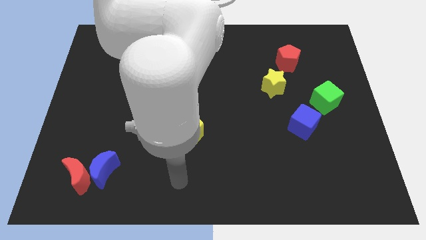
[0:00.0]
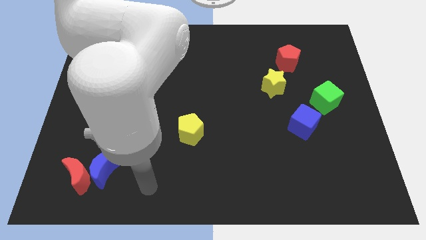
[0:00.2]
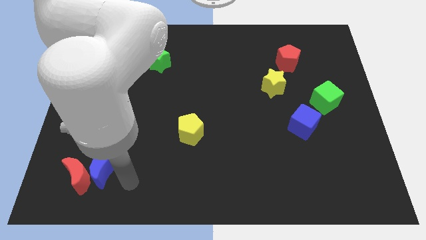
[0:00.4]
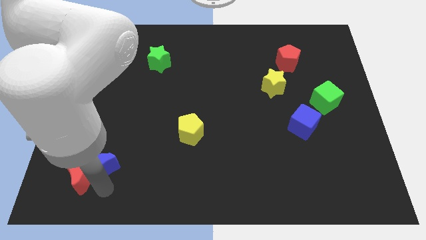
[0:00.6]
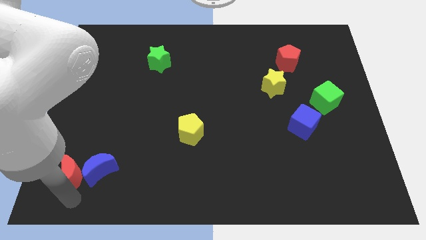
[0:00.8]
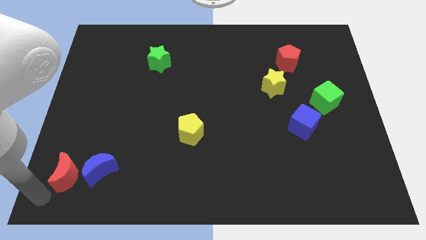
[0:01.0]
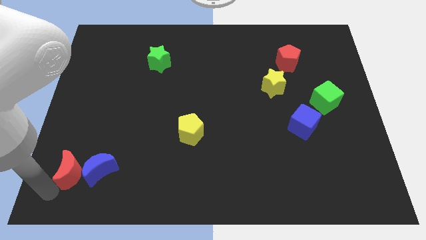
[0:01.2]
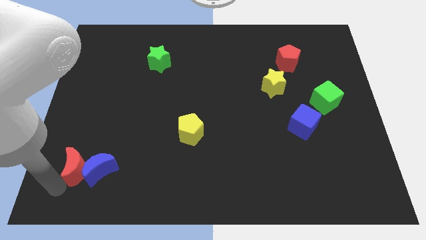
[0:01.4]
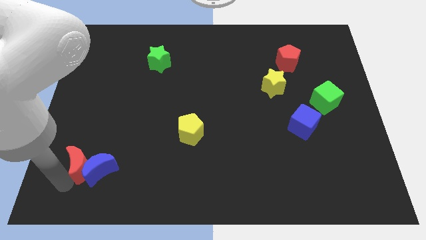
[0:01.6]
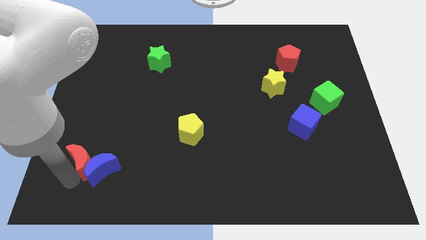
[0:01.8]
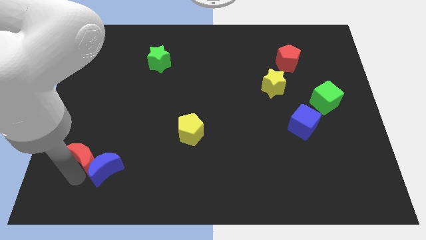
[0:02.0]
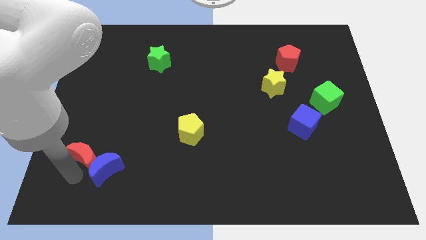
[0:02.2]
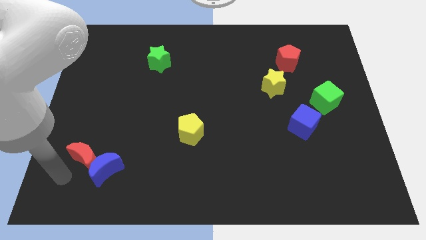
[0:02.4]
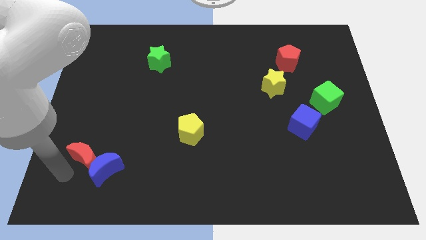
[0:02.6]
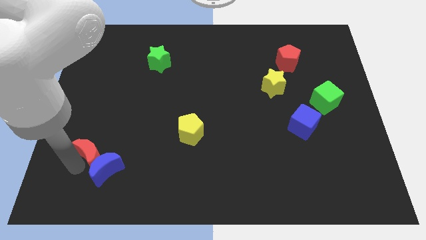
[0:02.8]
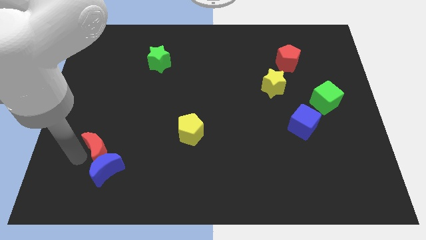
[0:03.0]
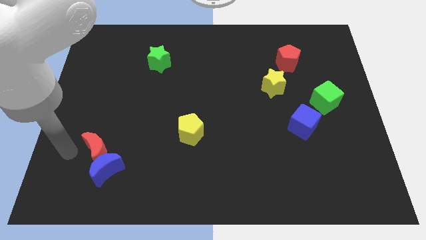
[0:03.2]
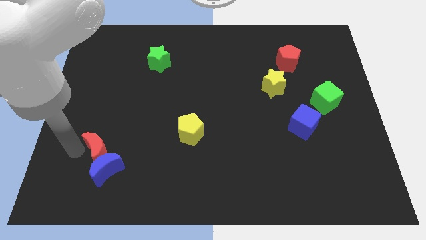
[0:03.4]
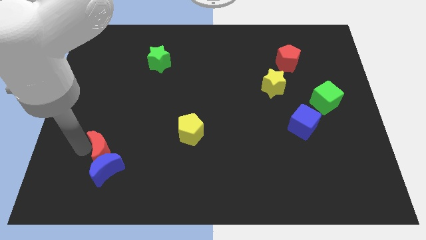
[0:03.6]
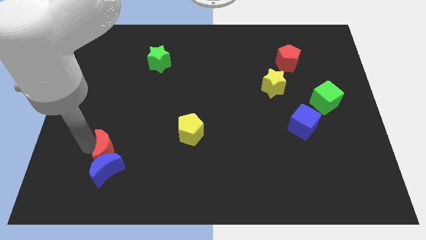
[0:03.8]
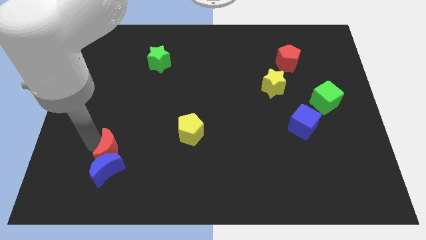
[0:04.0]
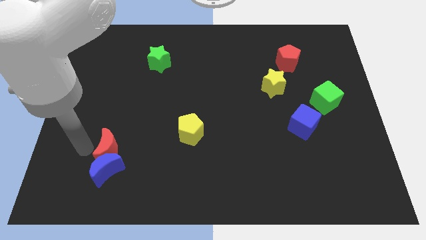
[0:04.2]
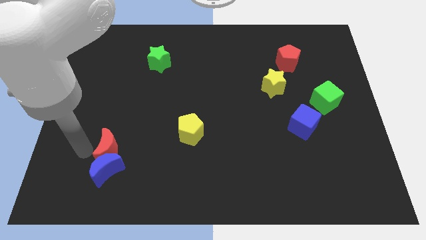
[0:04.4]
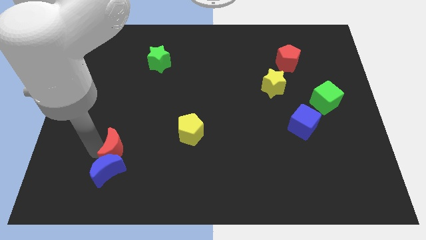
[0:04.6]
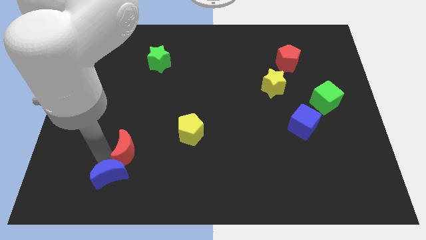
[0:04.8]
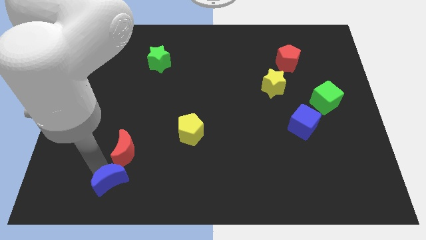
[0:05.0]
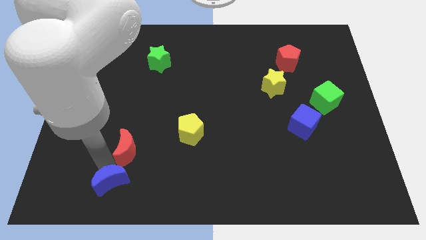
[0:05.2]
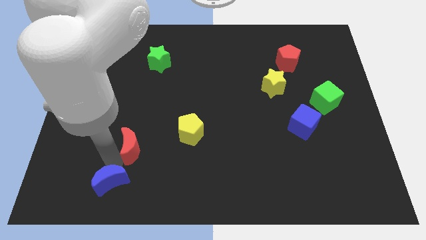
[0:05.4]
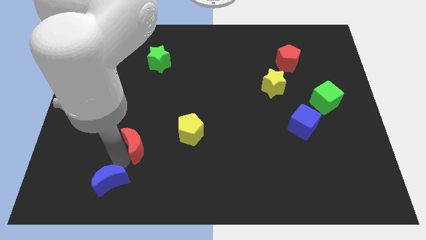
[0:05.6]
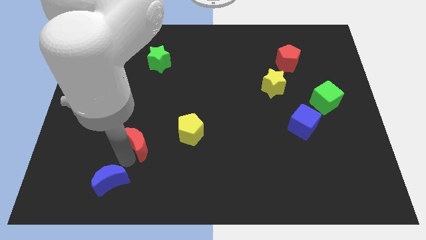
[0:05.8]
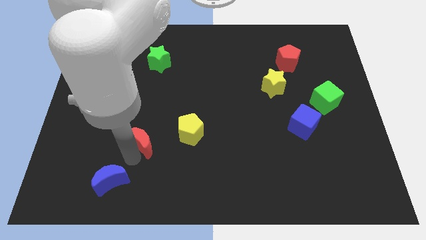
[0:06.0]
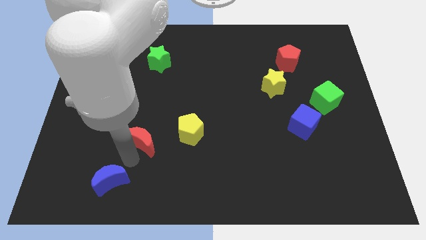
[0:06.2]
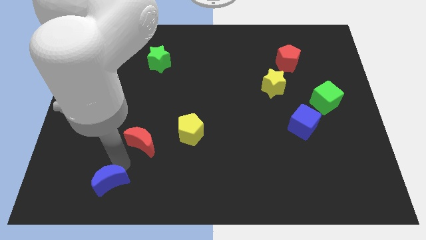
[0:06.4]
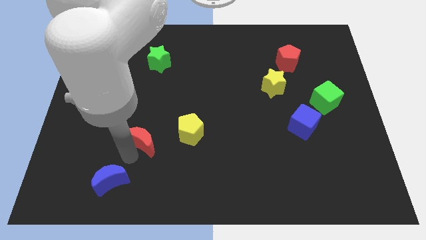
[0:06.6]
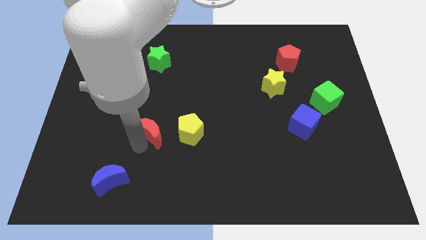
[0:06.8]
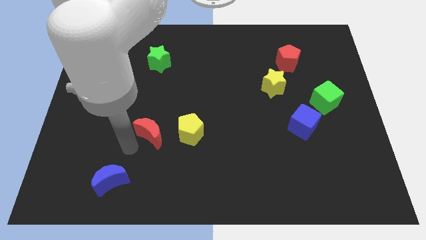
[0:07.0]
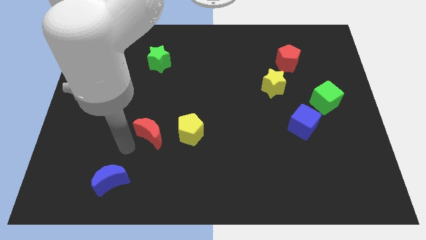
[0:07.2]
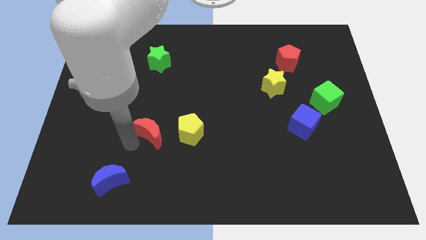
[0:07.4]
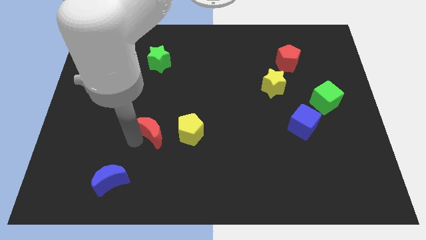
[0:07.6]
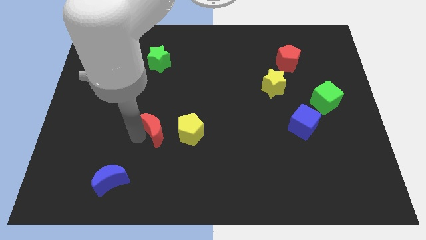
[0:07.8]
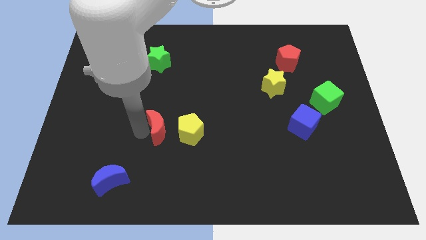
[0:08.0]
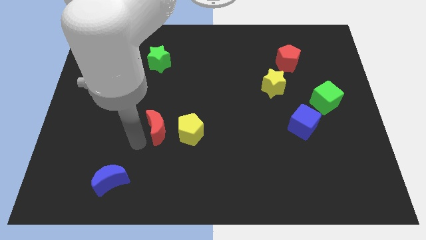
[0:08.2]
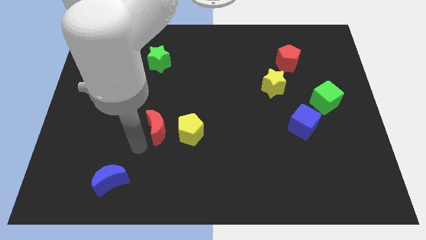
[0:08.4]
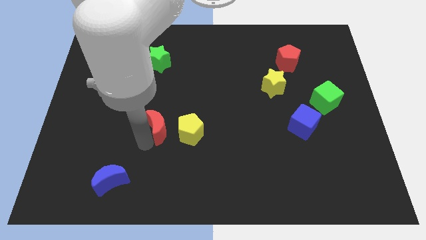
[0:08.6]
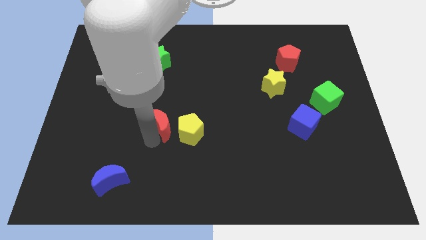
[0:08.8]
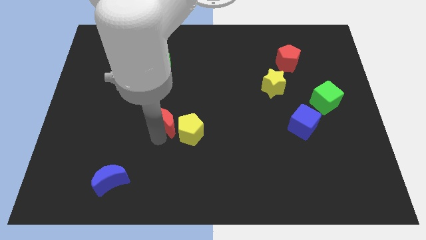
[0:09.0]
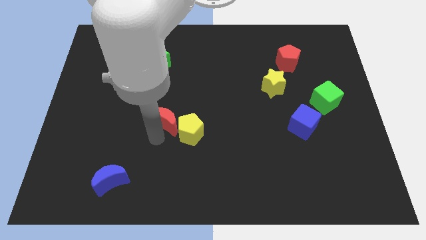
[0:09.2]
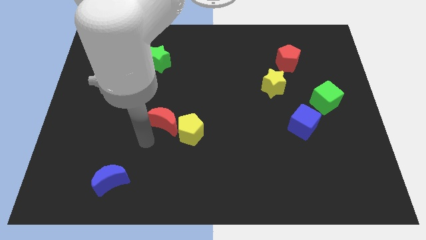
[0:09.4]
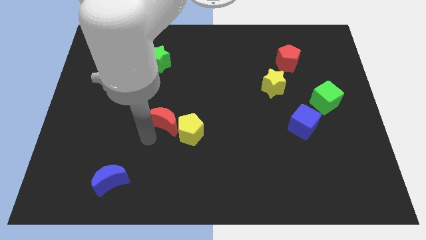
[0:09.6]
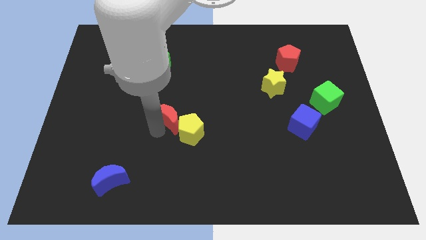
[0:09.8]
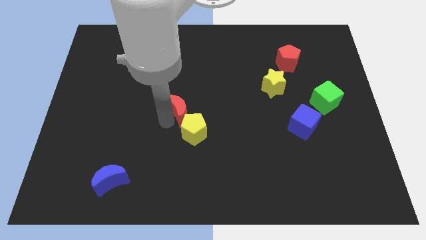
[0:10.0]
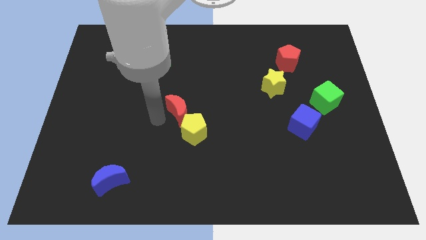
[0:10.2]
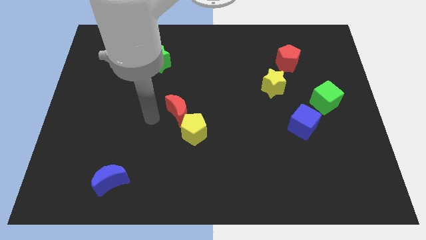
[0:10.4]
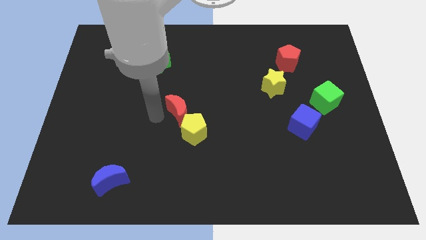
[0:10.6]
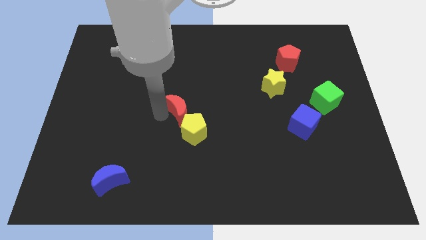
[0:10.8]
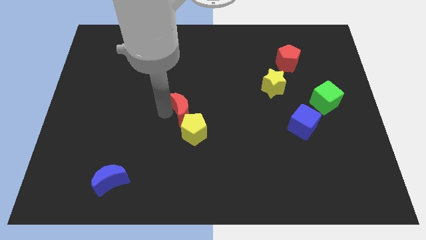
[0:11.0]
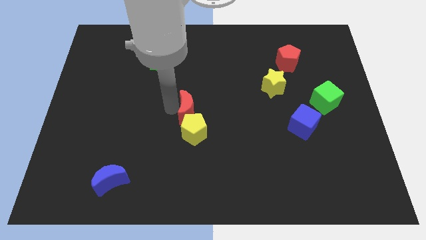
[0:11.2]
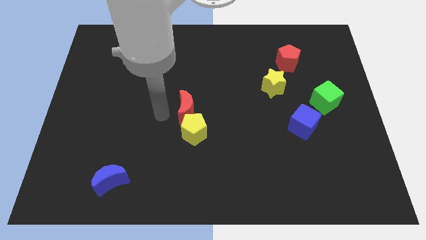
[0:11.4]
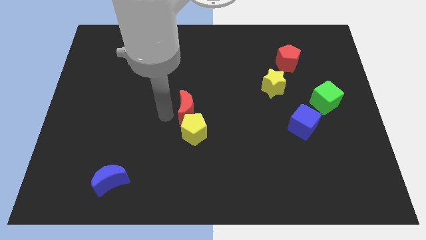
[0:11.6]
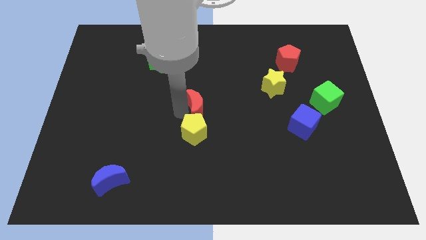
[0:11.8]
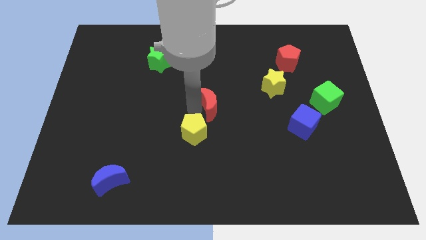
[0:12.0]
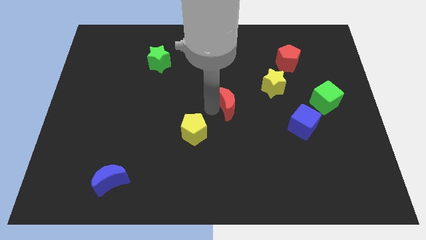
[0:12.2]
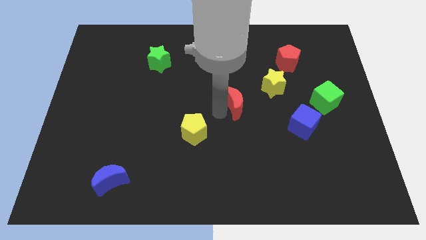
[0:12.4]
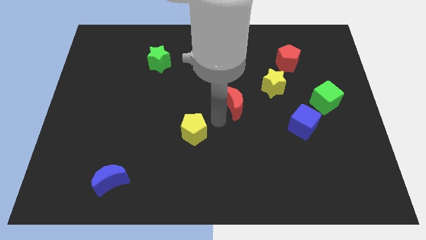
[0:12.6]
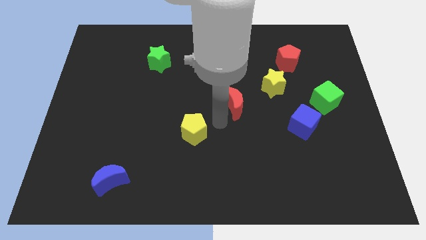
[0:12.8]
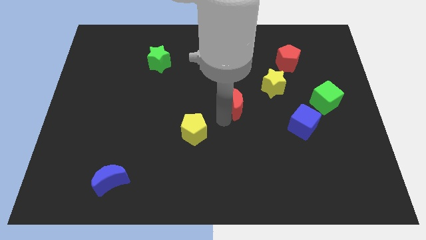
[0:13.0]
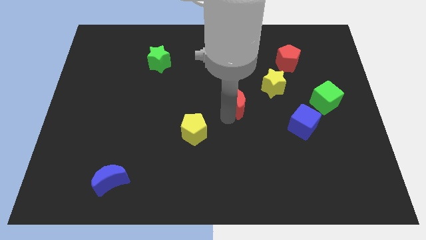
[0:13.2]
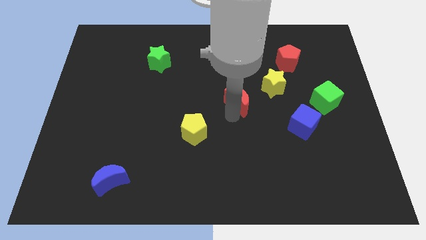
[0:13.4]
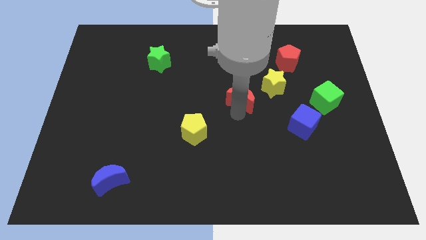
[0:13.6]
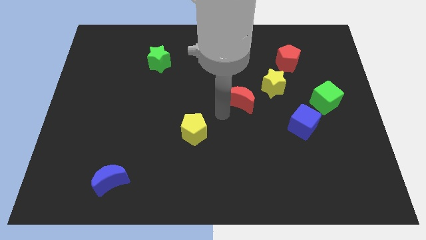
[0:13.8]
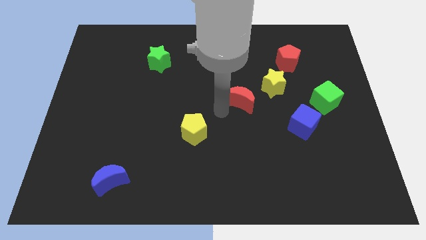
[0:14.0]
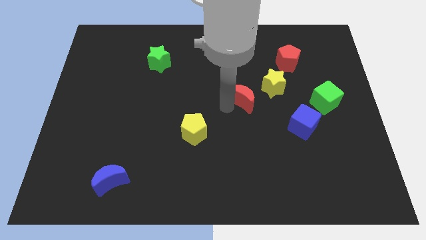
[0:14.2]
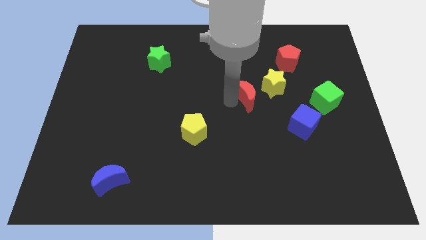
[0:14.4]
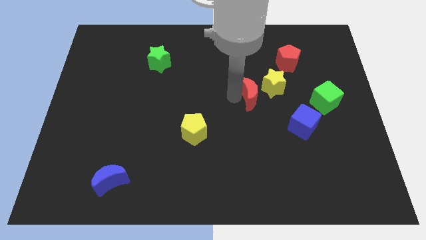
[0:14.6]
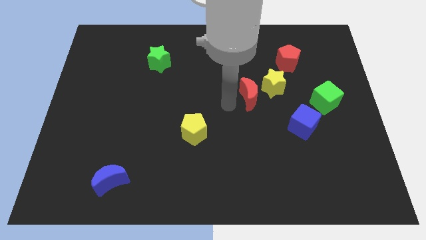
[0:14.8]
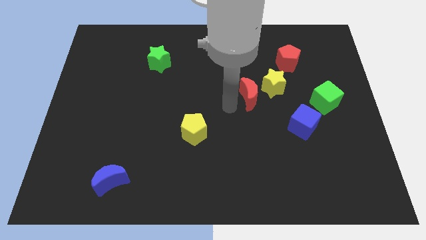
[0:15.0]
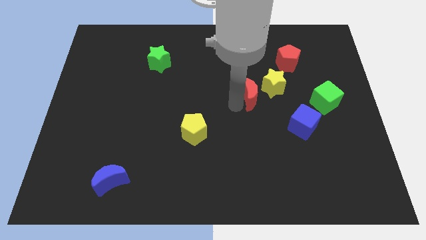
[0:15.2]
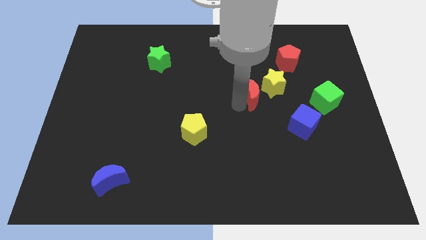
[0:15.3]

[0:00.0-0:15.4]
put the red moon next to the yellow star

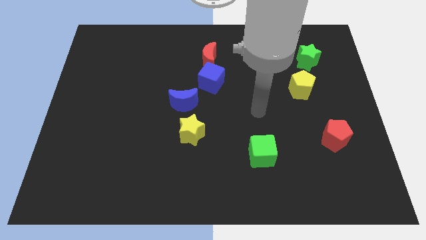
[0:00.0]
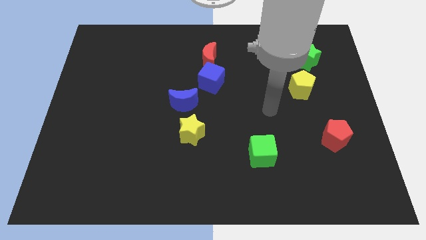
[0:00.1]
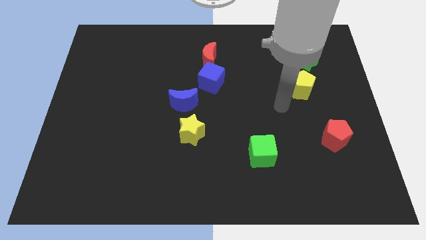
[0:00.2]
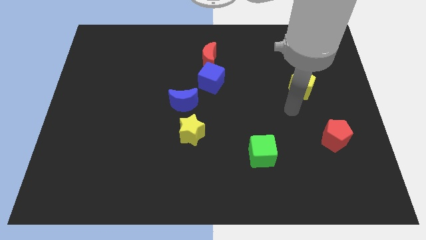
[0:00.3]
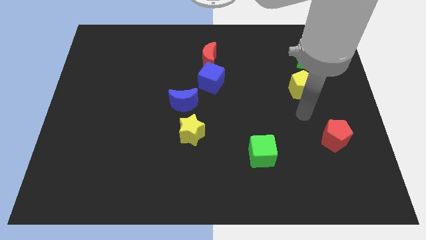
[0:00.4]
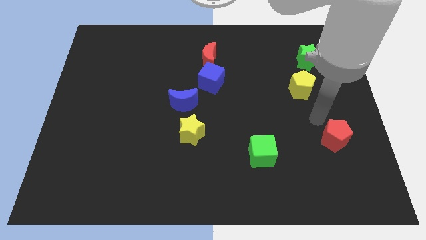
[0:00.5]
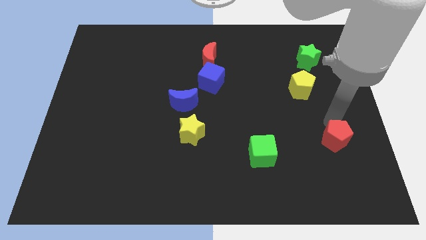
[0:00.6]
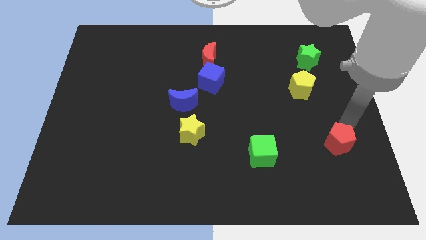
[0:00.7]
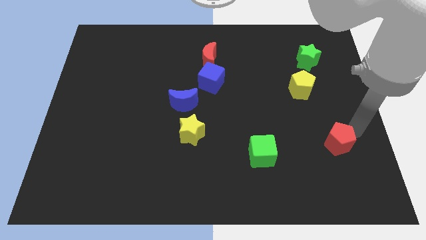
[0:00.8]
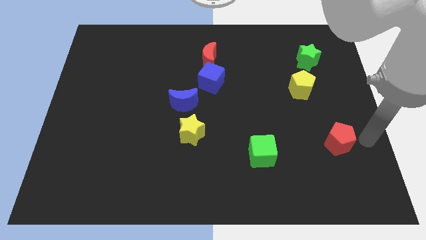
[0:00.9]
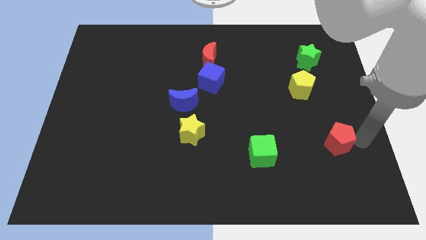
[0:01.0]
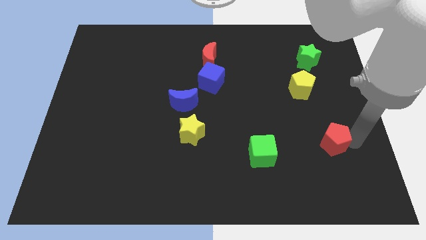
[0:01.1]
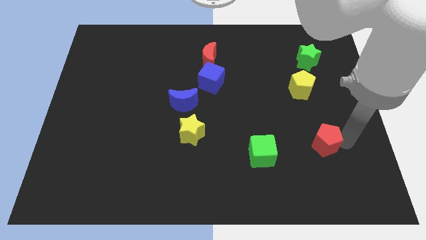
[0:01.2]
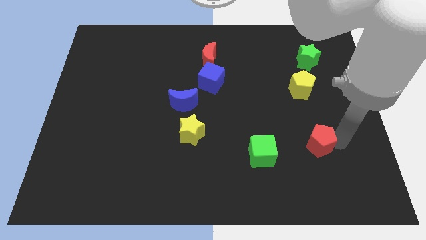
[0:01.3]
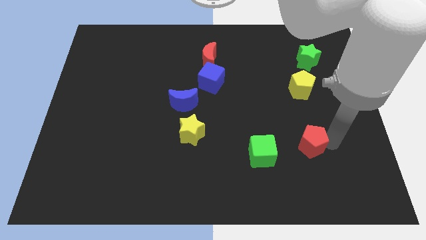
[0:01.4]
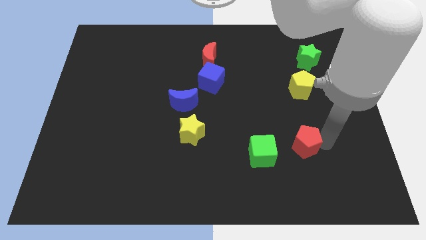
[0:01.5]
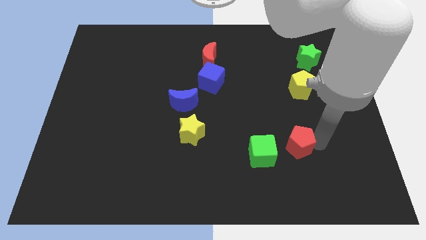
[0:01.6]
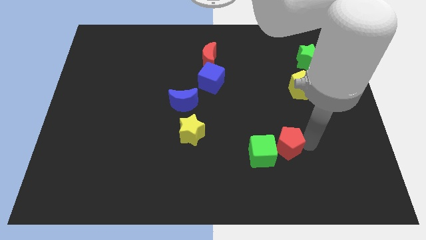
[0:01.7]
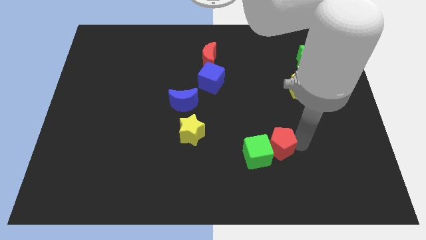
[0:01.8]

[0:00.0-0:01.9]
put the red pentagon close to the green cube
